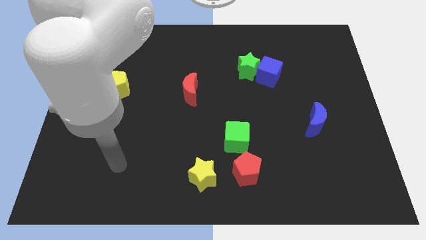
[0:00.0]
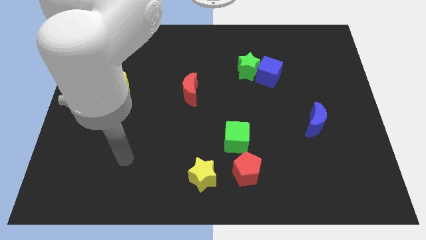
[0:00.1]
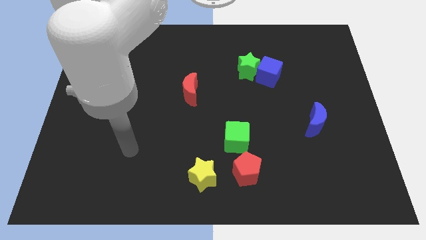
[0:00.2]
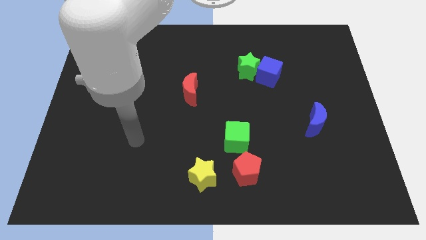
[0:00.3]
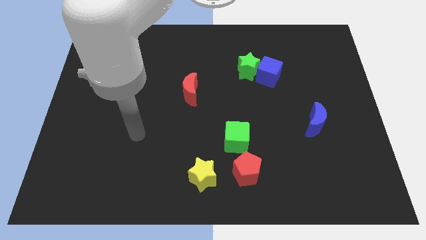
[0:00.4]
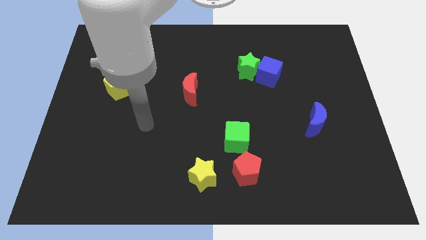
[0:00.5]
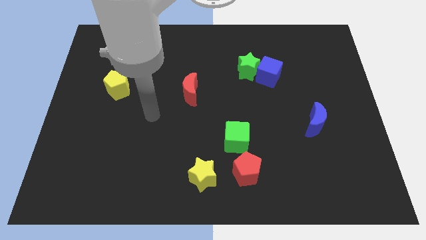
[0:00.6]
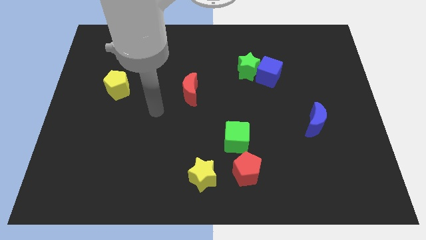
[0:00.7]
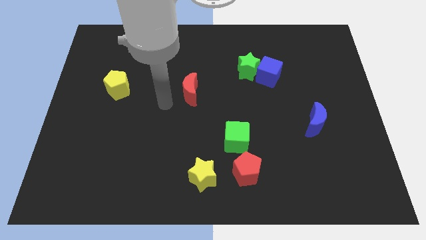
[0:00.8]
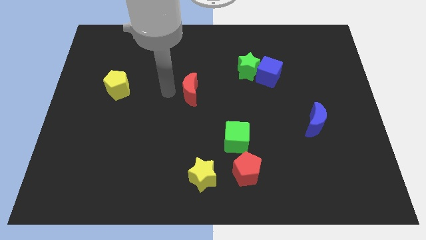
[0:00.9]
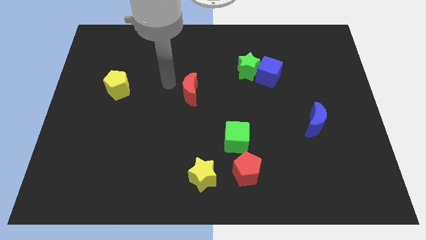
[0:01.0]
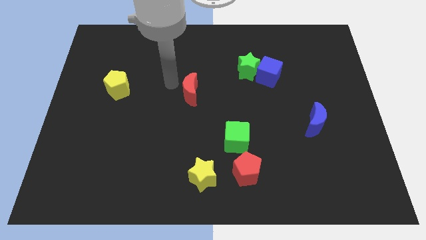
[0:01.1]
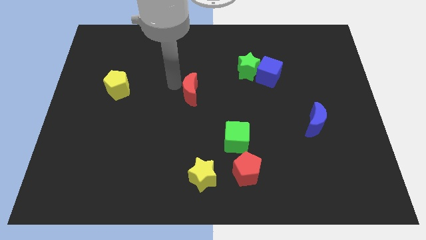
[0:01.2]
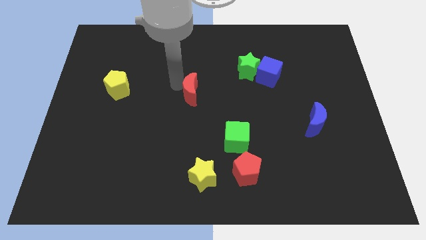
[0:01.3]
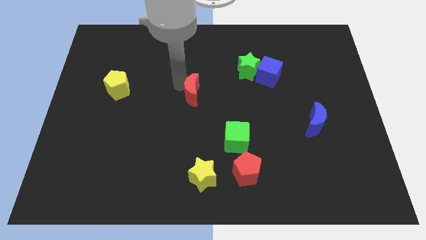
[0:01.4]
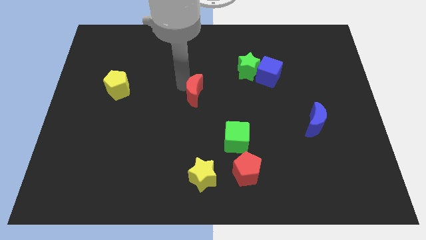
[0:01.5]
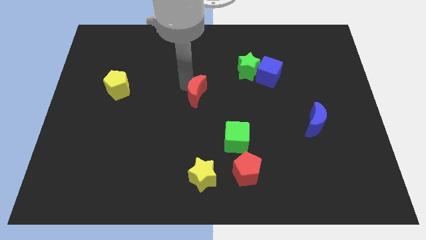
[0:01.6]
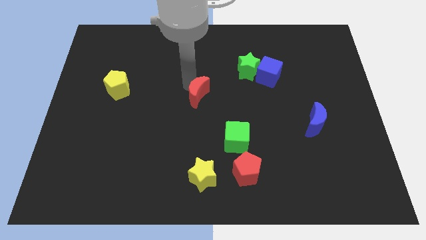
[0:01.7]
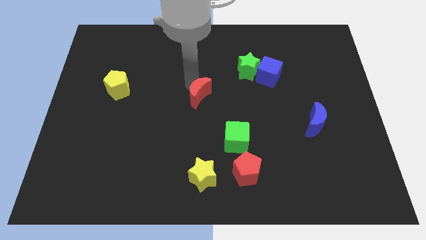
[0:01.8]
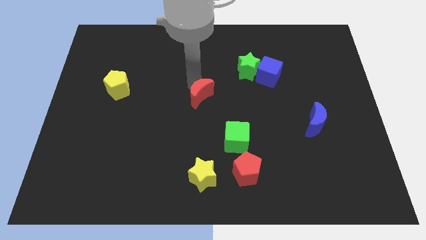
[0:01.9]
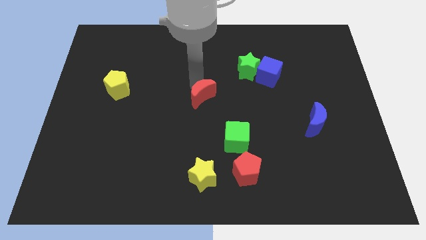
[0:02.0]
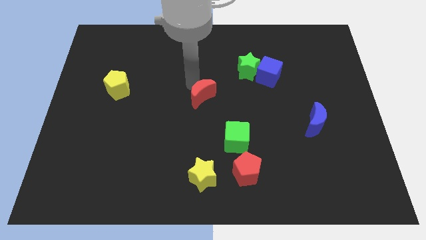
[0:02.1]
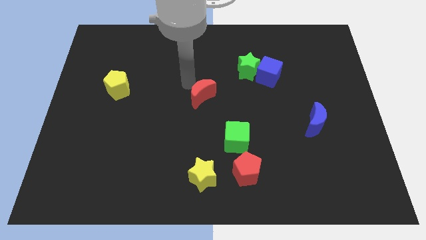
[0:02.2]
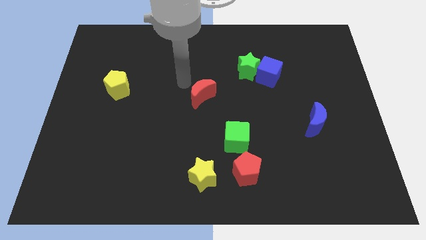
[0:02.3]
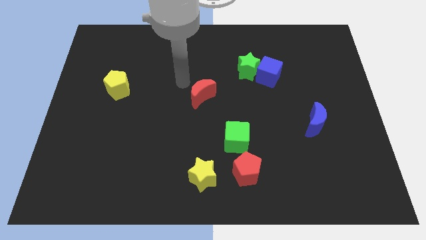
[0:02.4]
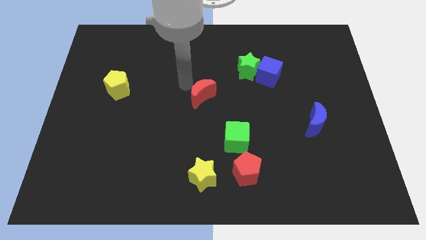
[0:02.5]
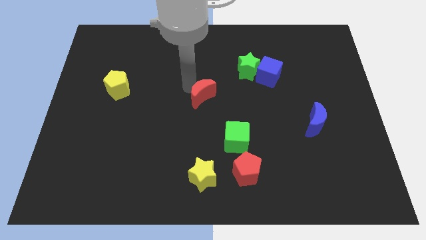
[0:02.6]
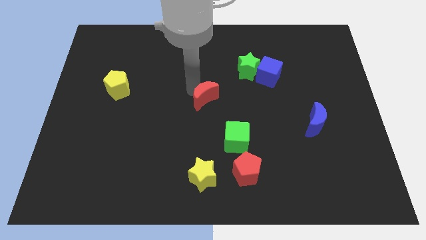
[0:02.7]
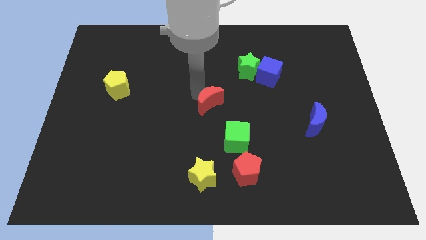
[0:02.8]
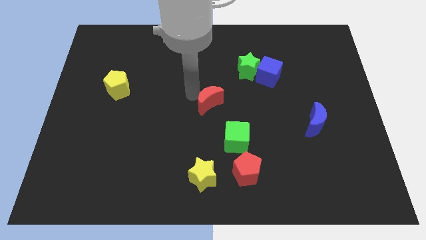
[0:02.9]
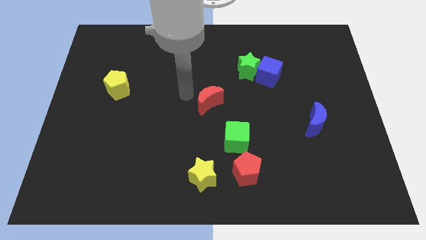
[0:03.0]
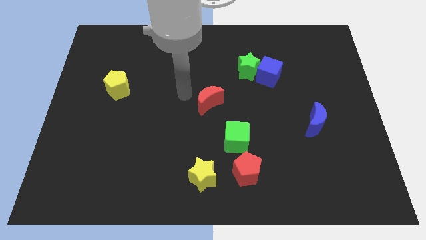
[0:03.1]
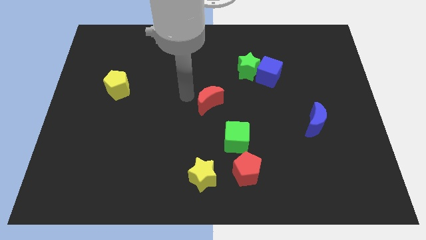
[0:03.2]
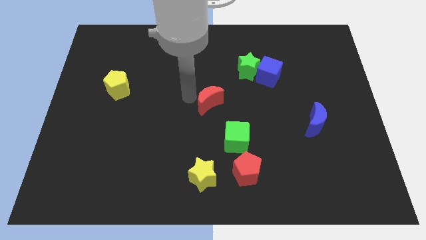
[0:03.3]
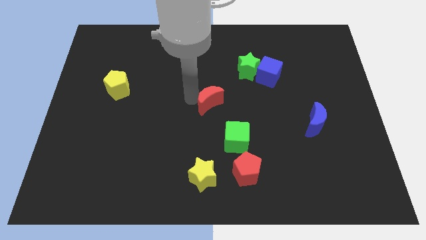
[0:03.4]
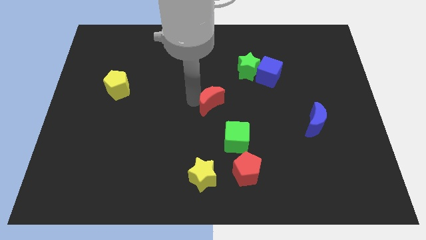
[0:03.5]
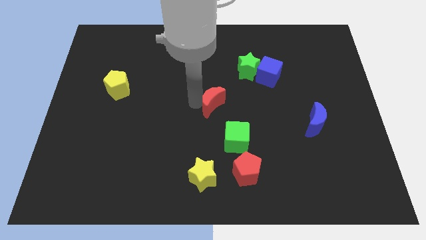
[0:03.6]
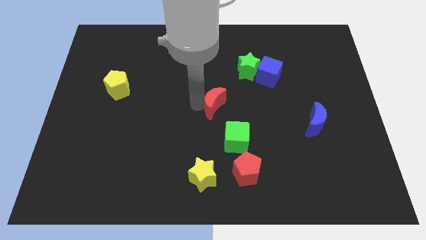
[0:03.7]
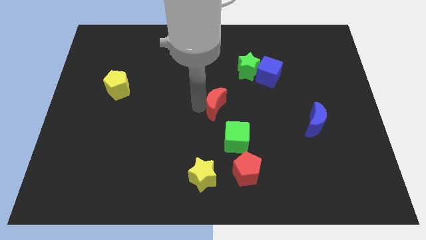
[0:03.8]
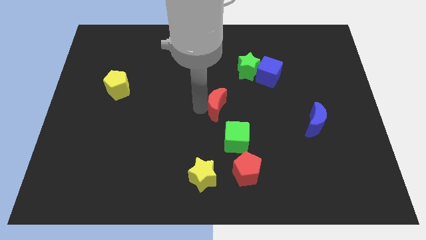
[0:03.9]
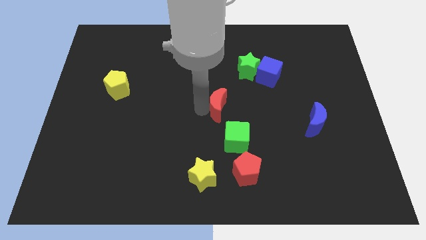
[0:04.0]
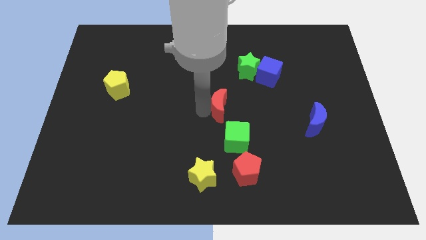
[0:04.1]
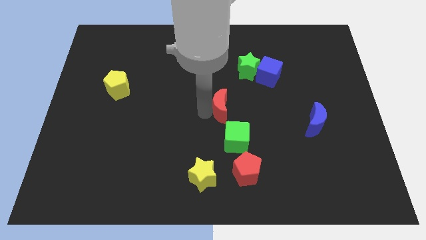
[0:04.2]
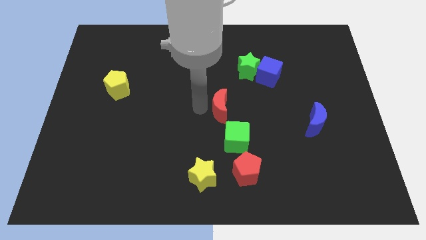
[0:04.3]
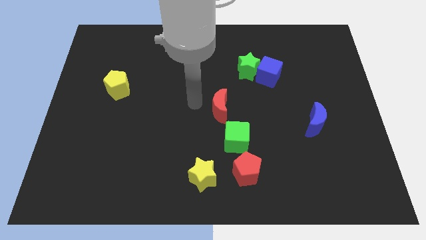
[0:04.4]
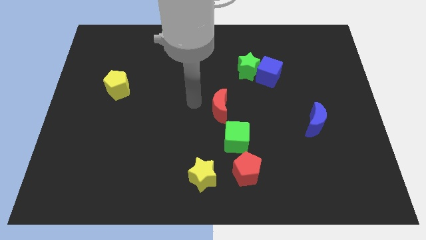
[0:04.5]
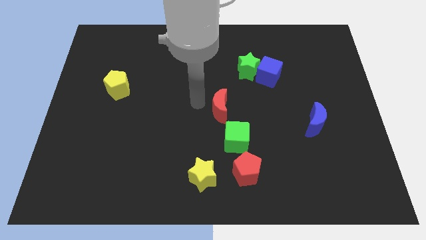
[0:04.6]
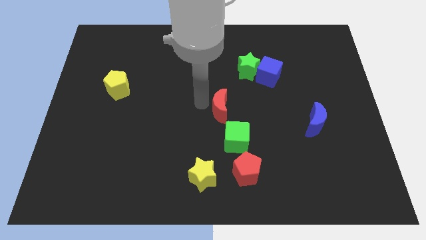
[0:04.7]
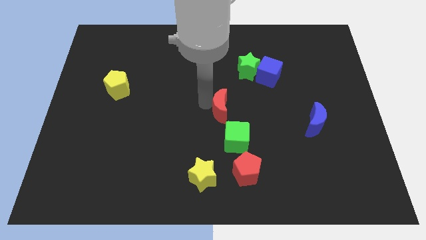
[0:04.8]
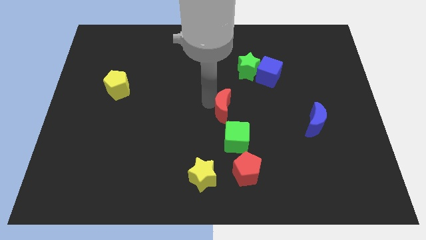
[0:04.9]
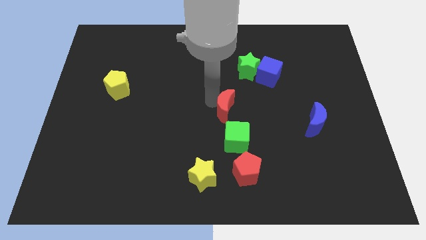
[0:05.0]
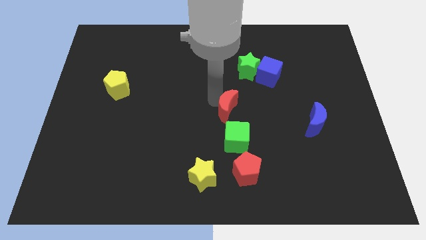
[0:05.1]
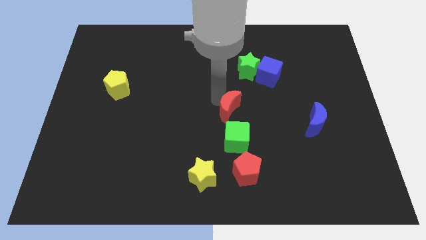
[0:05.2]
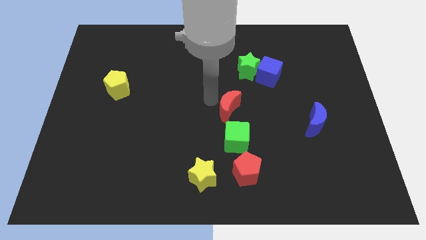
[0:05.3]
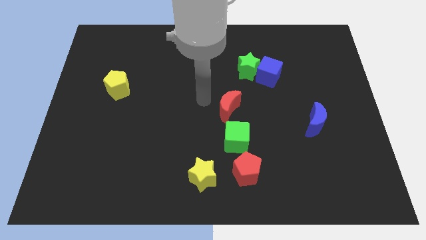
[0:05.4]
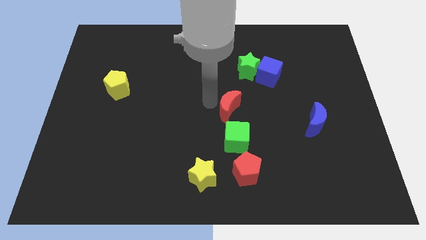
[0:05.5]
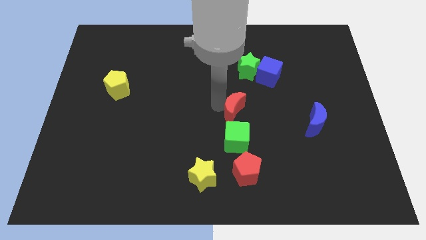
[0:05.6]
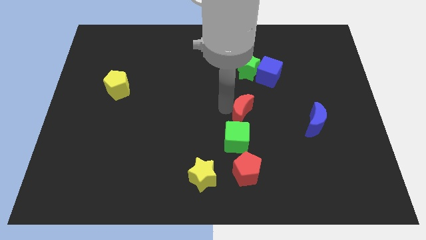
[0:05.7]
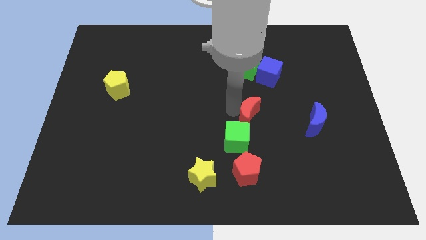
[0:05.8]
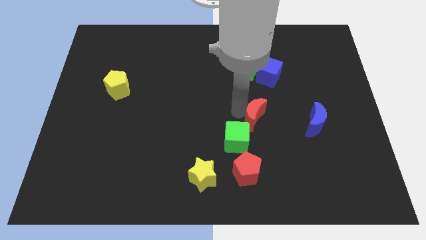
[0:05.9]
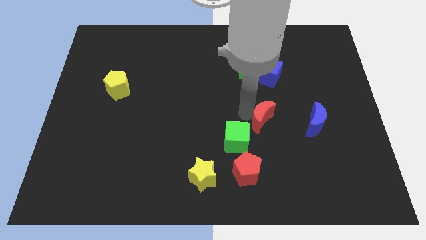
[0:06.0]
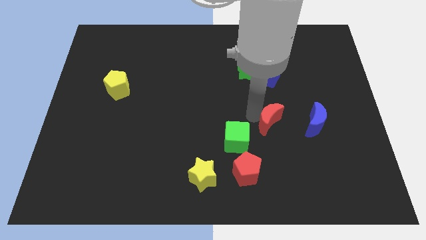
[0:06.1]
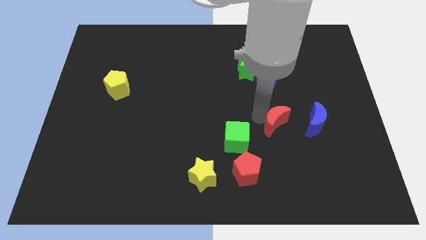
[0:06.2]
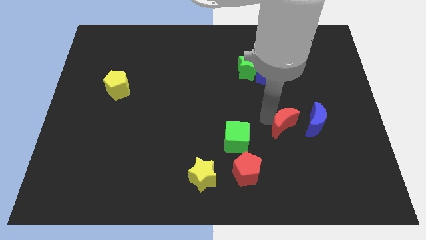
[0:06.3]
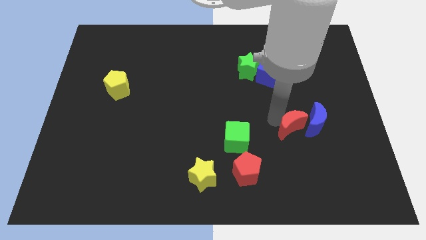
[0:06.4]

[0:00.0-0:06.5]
slide the red moon diagonally down and to the left of the blue moon

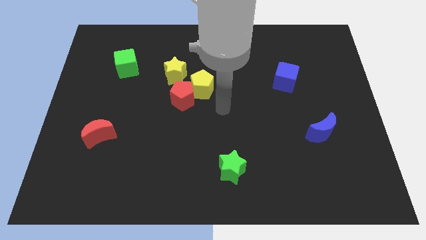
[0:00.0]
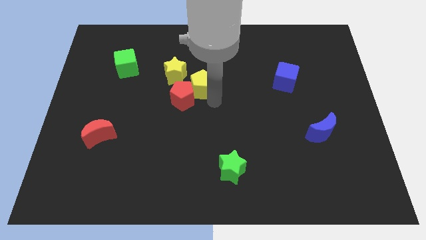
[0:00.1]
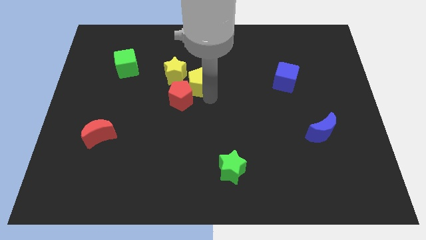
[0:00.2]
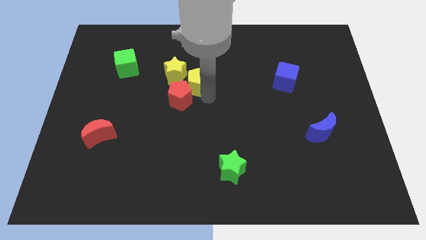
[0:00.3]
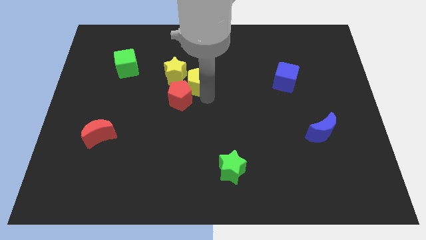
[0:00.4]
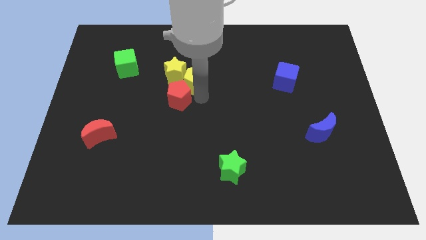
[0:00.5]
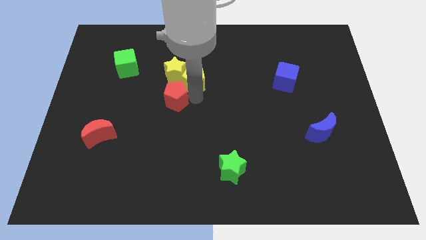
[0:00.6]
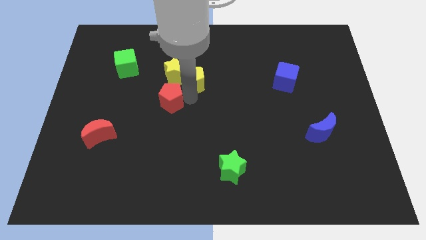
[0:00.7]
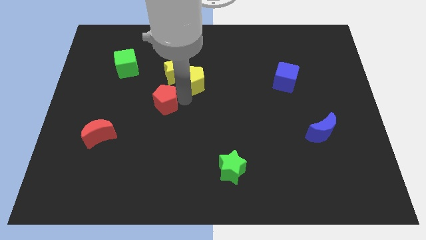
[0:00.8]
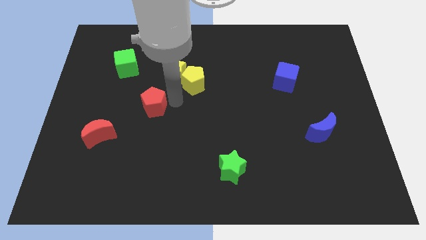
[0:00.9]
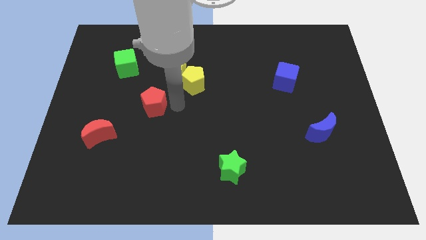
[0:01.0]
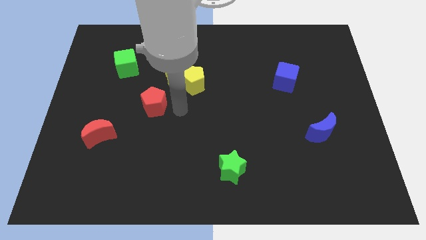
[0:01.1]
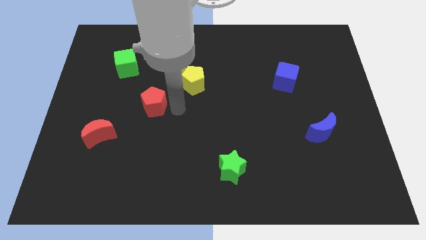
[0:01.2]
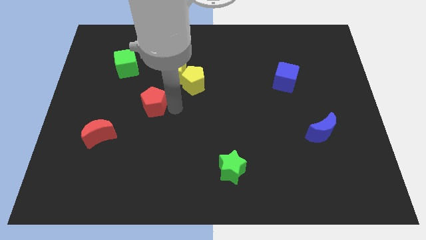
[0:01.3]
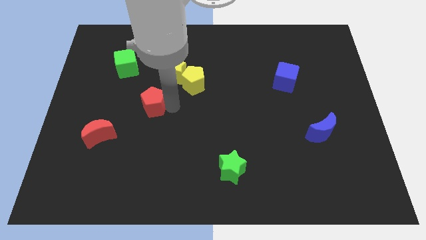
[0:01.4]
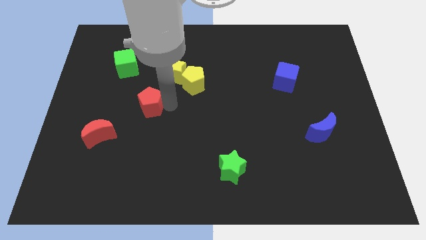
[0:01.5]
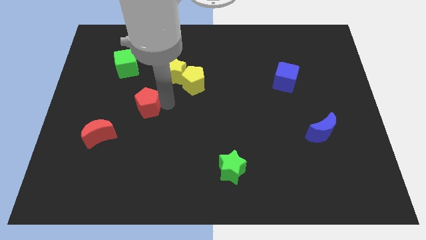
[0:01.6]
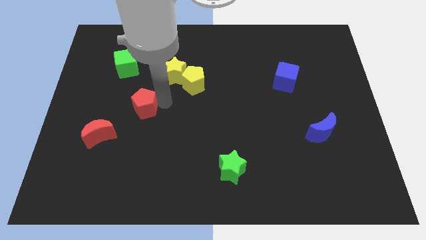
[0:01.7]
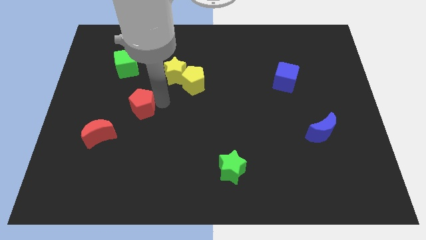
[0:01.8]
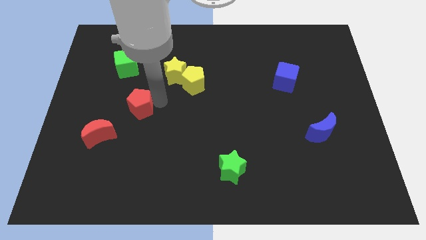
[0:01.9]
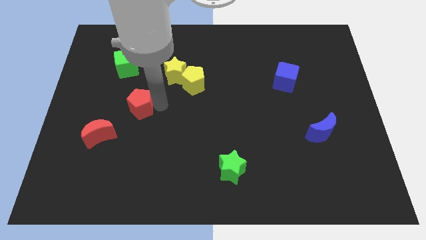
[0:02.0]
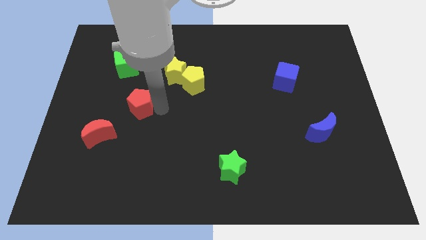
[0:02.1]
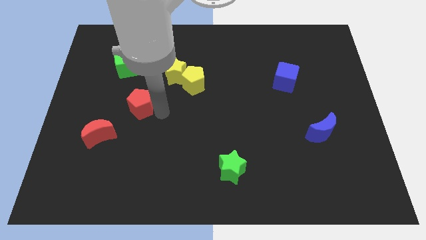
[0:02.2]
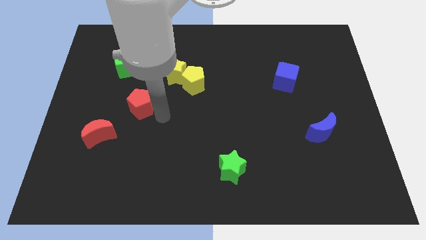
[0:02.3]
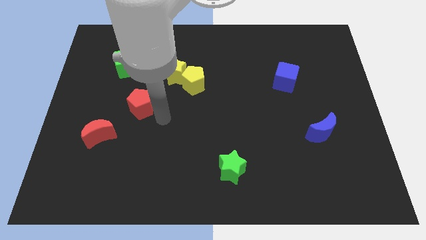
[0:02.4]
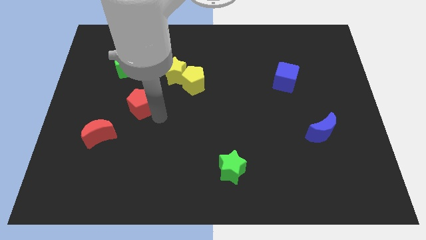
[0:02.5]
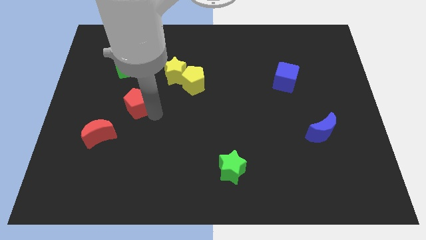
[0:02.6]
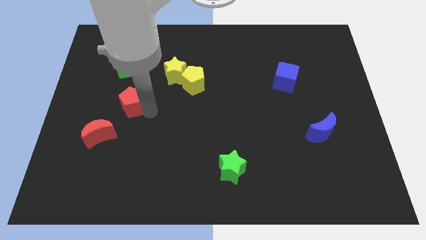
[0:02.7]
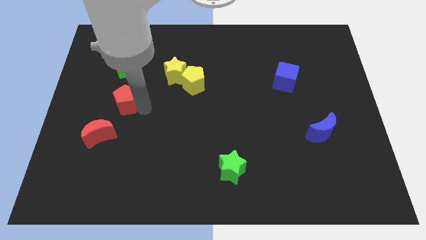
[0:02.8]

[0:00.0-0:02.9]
slide the red pentagon above the red moon
